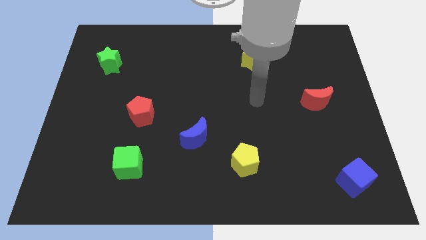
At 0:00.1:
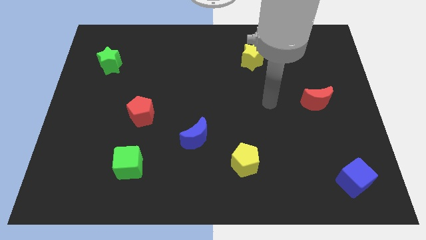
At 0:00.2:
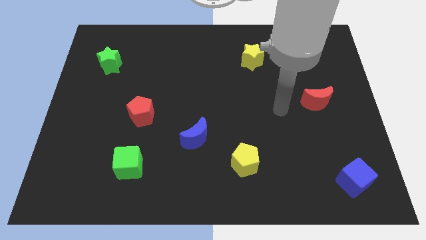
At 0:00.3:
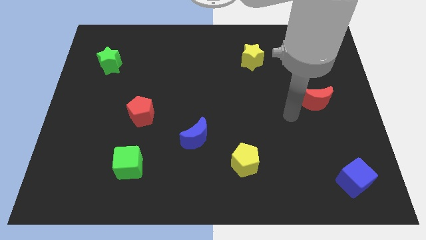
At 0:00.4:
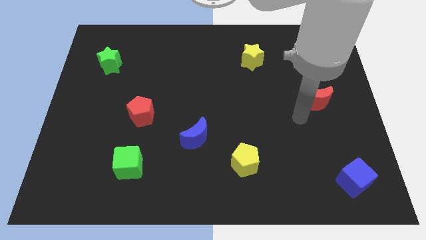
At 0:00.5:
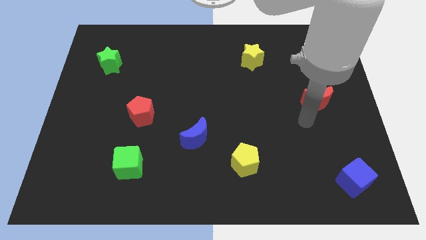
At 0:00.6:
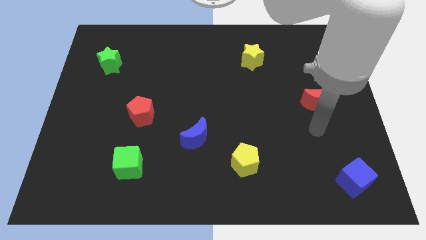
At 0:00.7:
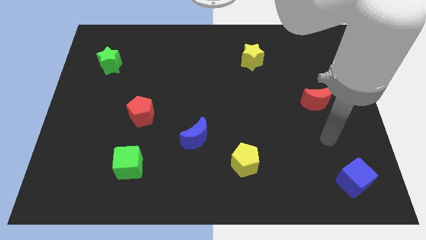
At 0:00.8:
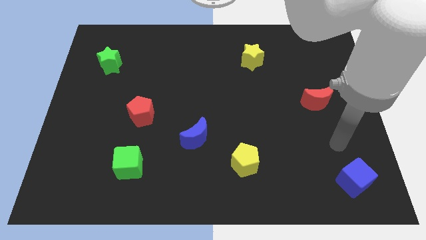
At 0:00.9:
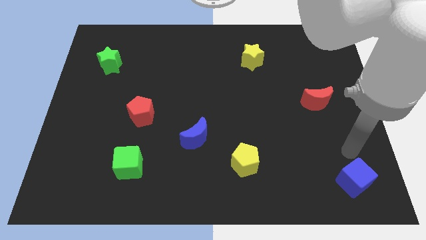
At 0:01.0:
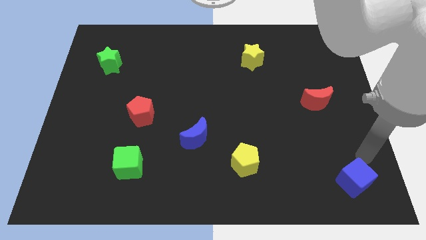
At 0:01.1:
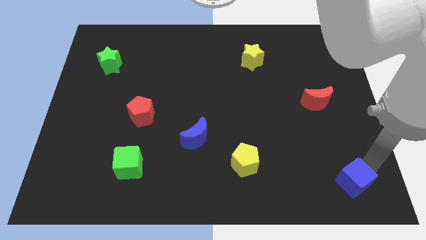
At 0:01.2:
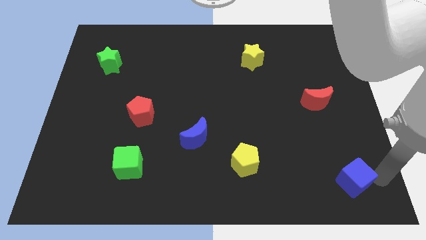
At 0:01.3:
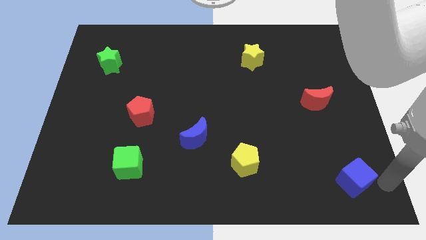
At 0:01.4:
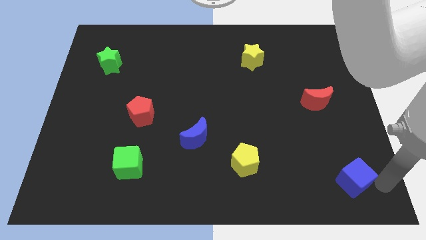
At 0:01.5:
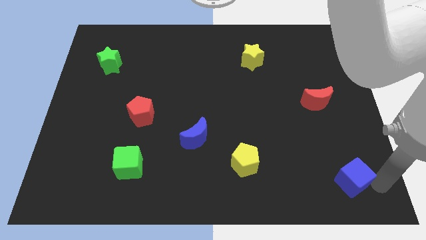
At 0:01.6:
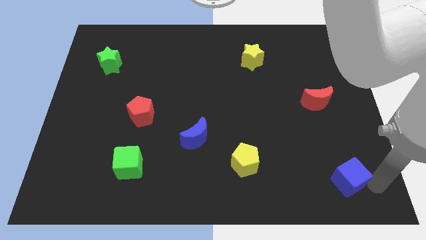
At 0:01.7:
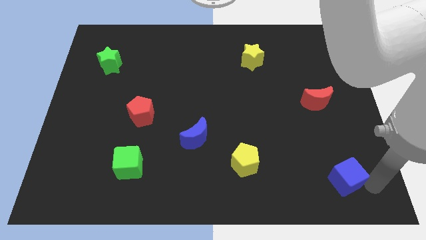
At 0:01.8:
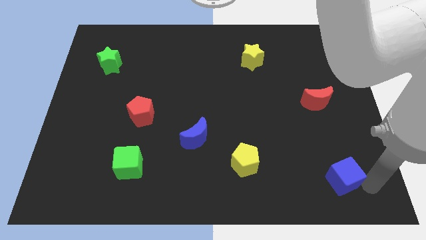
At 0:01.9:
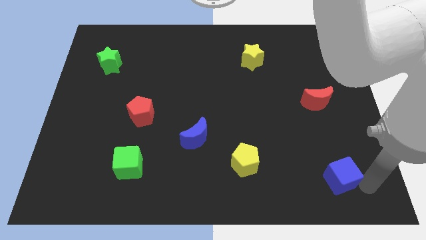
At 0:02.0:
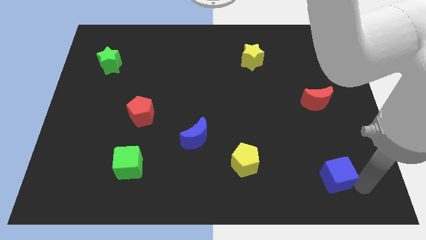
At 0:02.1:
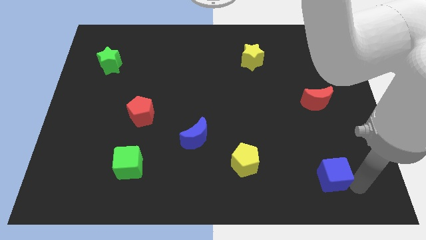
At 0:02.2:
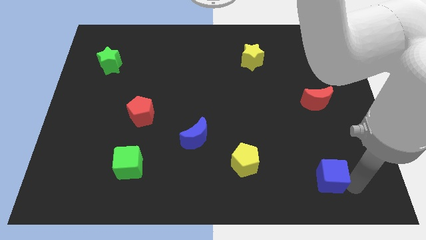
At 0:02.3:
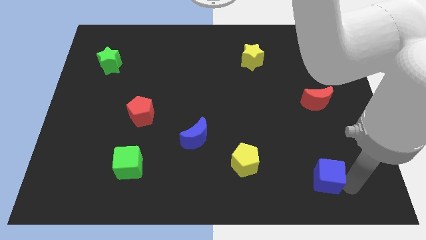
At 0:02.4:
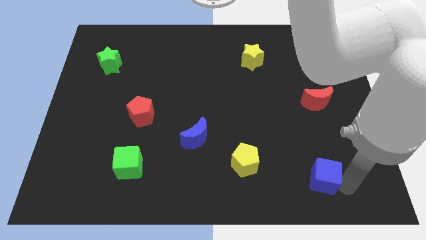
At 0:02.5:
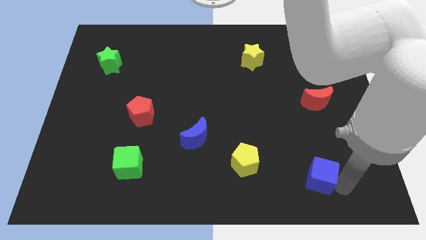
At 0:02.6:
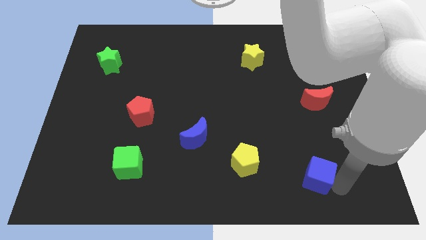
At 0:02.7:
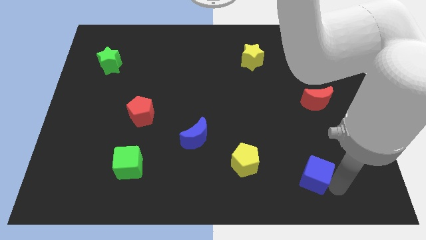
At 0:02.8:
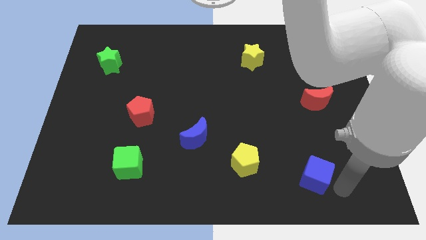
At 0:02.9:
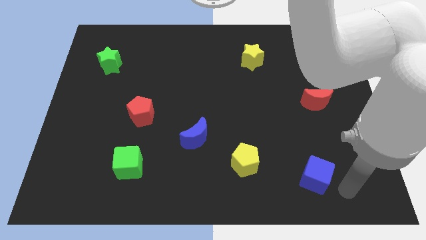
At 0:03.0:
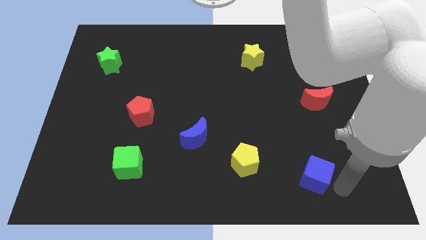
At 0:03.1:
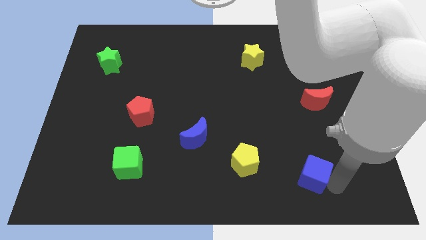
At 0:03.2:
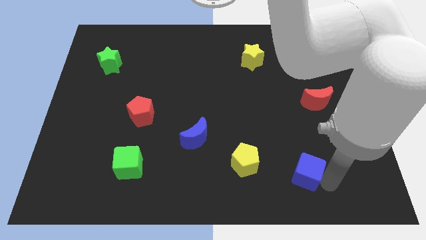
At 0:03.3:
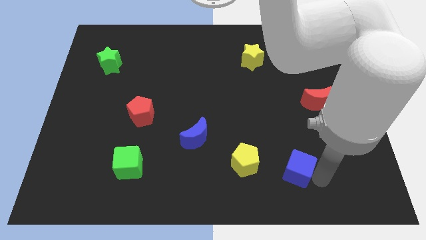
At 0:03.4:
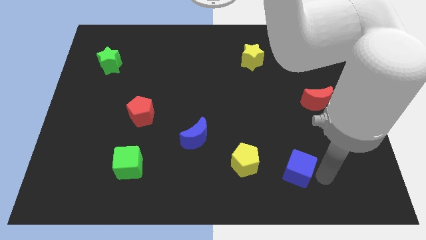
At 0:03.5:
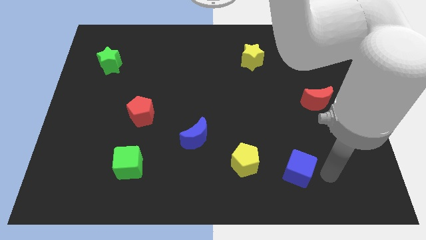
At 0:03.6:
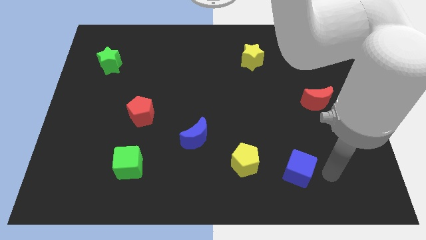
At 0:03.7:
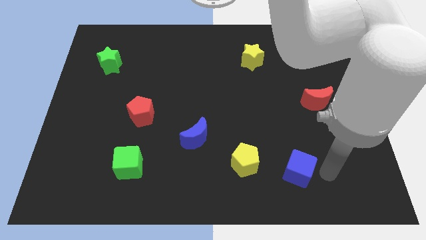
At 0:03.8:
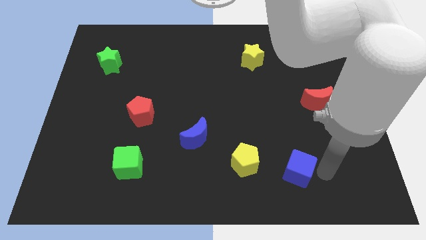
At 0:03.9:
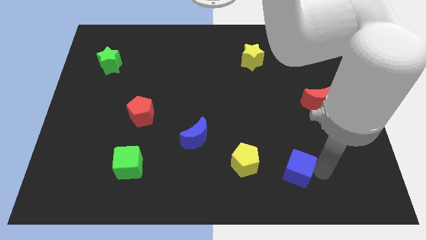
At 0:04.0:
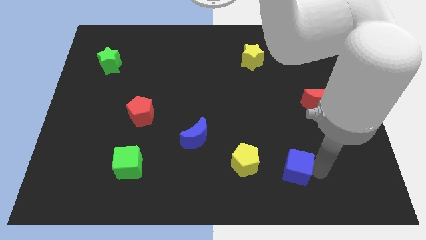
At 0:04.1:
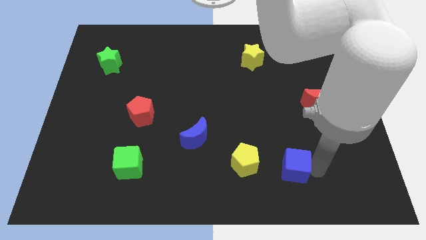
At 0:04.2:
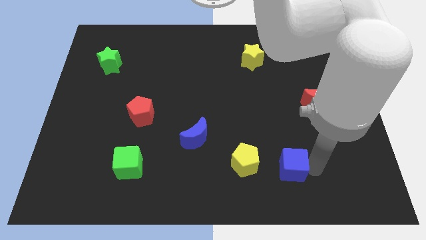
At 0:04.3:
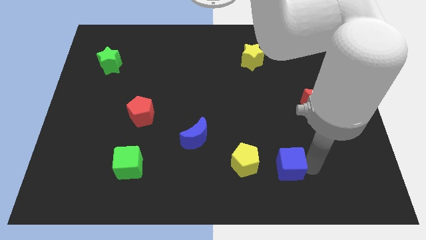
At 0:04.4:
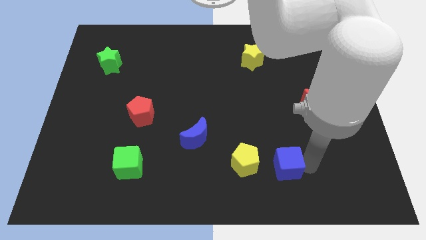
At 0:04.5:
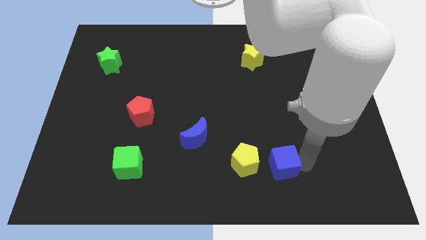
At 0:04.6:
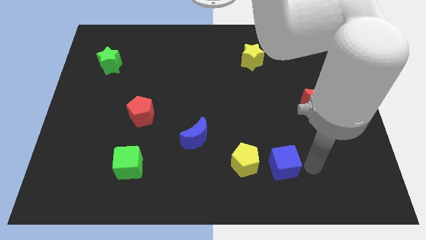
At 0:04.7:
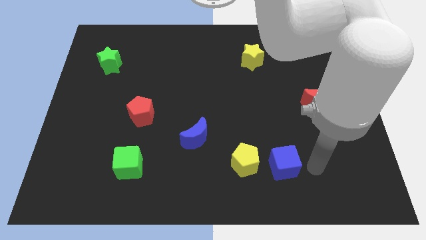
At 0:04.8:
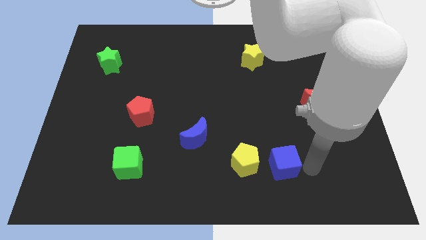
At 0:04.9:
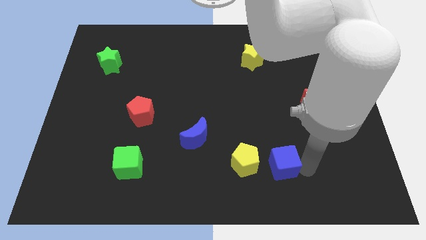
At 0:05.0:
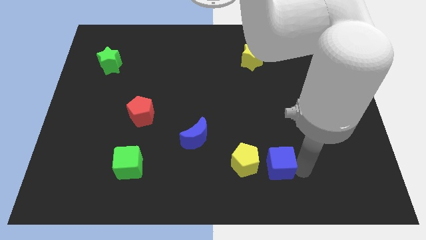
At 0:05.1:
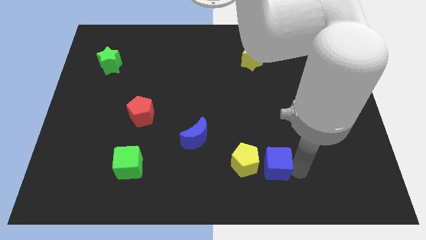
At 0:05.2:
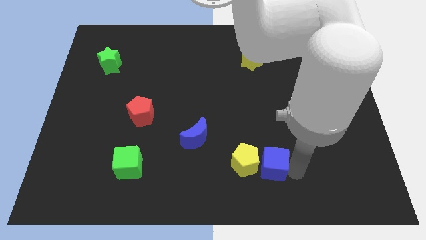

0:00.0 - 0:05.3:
put the blue cube next to the yellow pentagon

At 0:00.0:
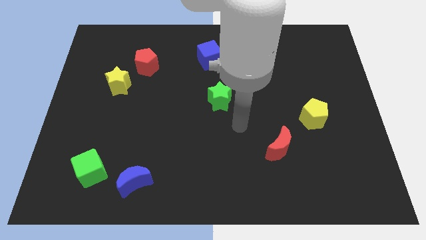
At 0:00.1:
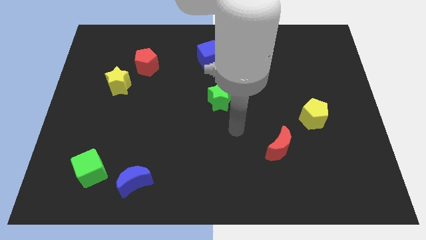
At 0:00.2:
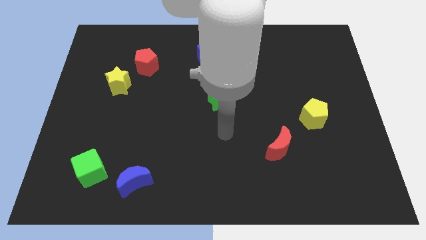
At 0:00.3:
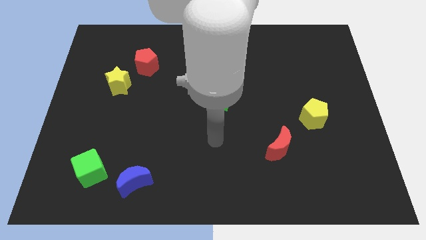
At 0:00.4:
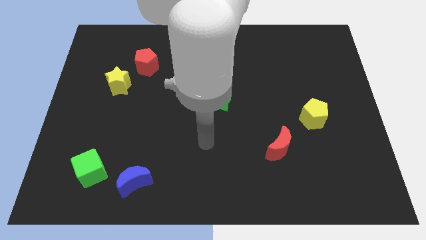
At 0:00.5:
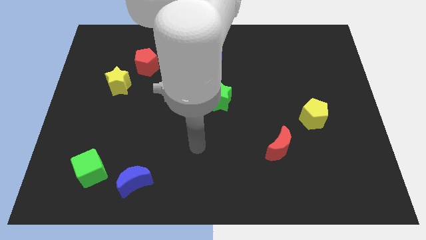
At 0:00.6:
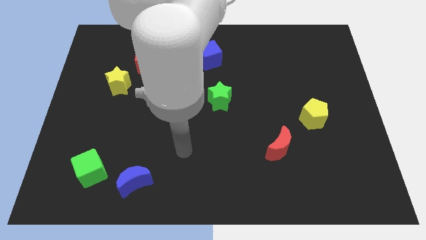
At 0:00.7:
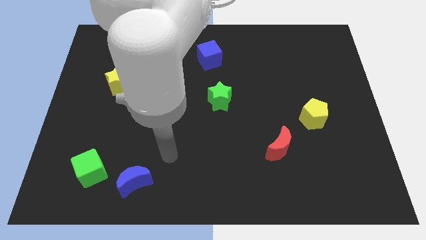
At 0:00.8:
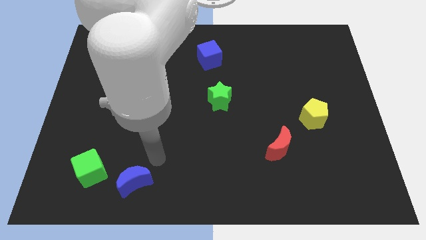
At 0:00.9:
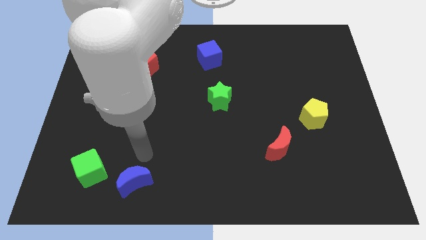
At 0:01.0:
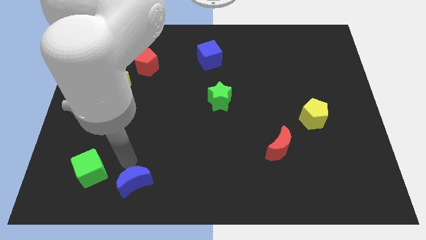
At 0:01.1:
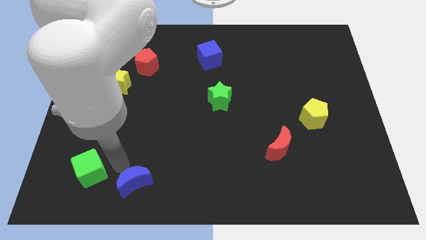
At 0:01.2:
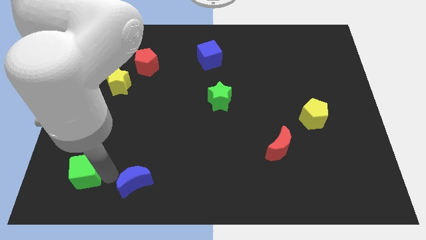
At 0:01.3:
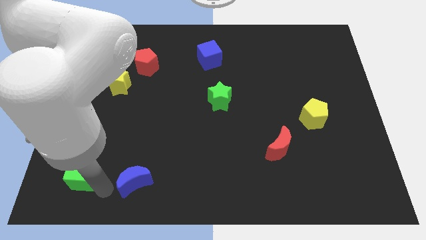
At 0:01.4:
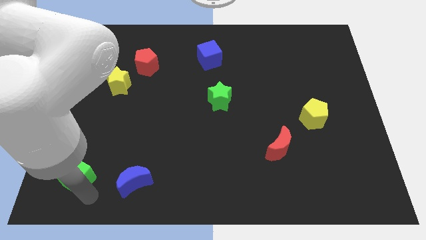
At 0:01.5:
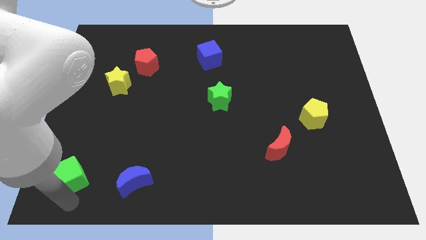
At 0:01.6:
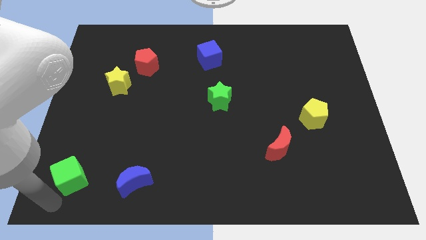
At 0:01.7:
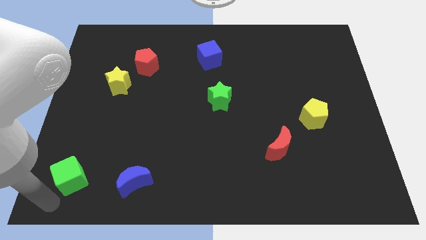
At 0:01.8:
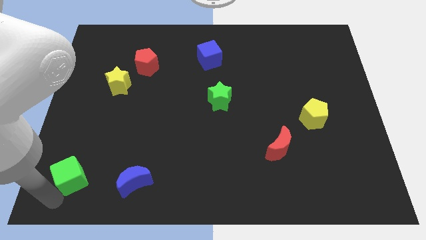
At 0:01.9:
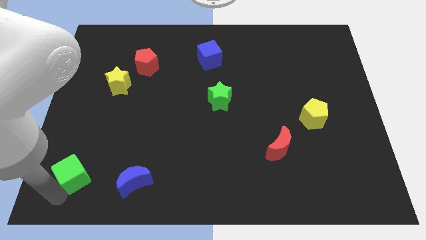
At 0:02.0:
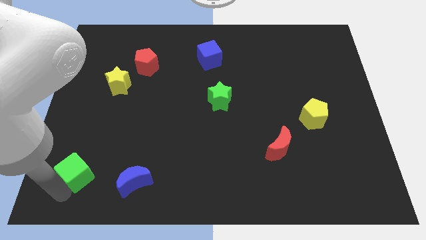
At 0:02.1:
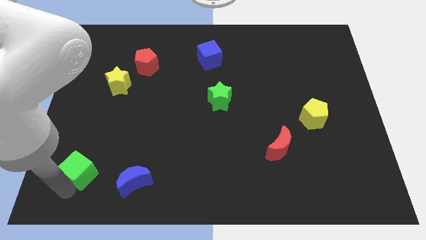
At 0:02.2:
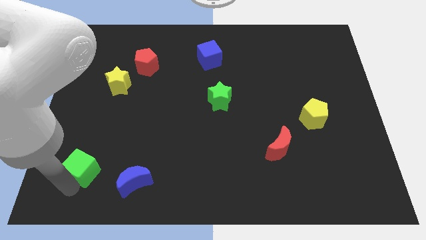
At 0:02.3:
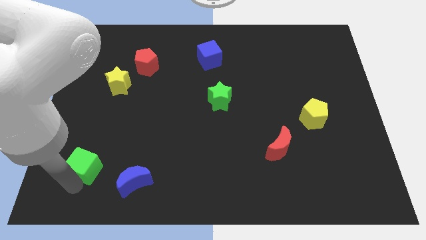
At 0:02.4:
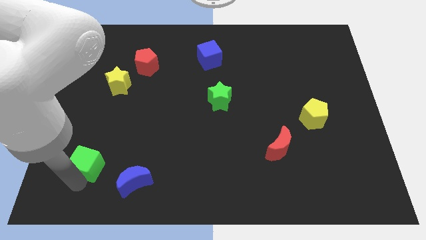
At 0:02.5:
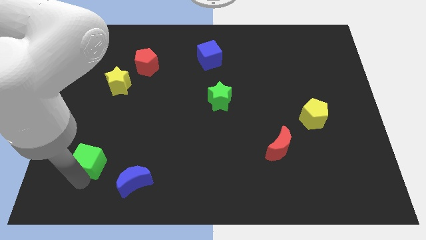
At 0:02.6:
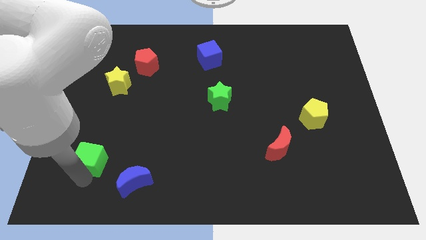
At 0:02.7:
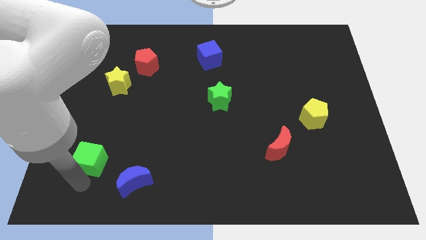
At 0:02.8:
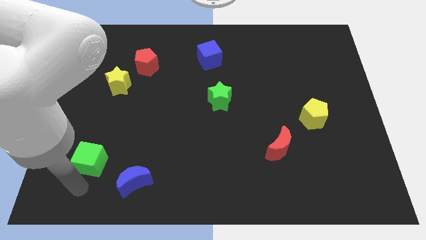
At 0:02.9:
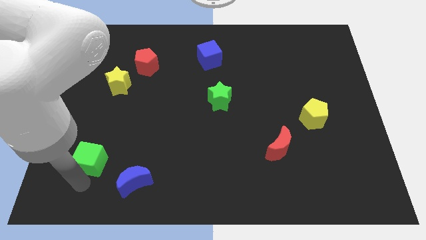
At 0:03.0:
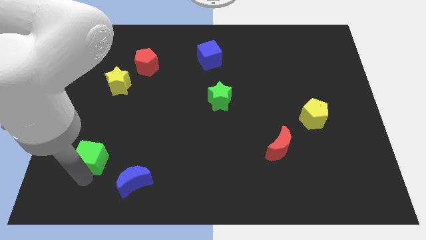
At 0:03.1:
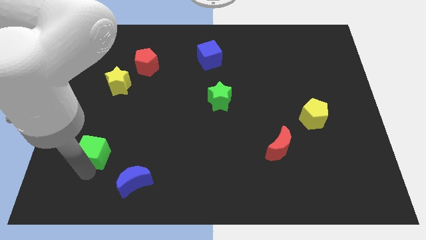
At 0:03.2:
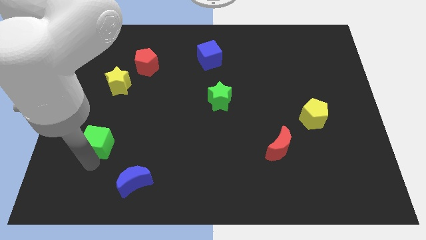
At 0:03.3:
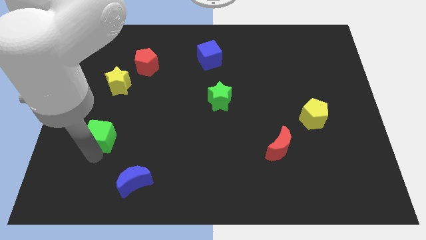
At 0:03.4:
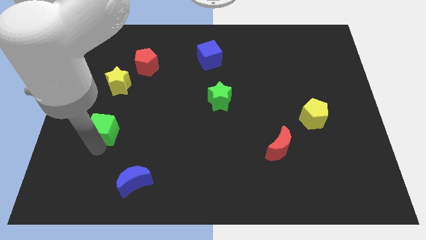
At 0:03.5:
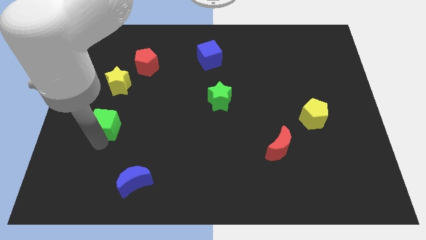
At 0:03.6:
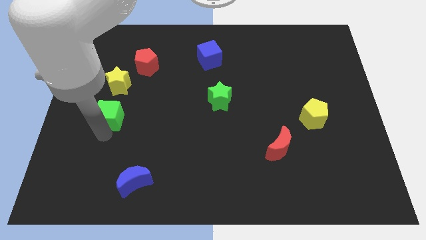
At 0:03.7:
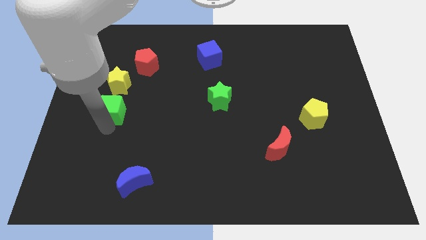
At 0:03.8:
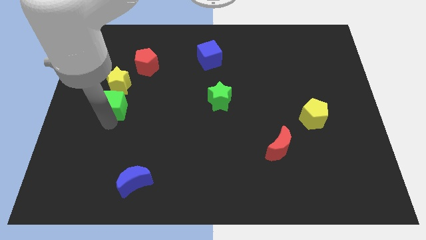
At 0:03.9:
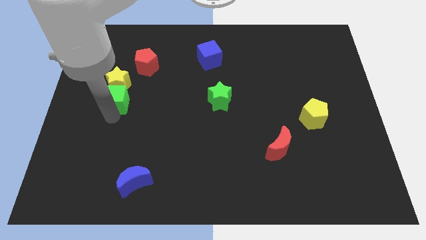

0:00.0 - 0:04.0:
put the green cube towards the yellow star
